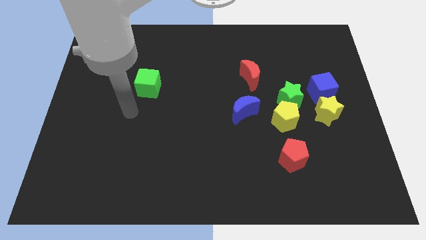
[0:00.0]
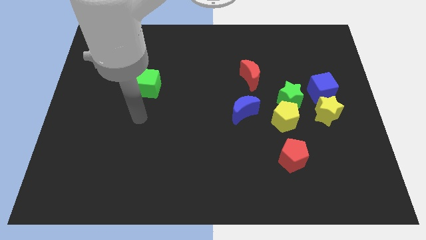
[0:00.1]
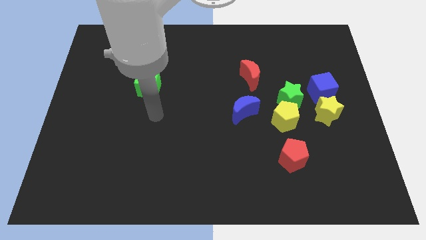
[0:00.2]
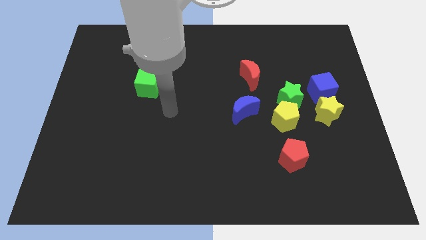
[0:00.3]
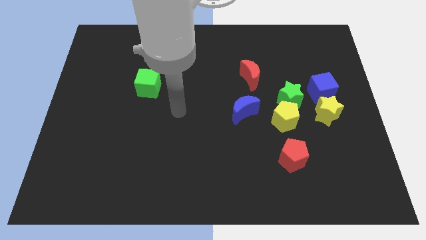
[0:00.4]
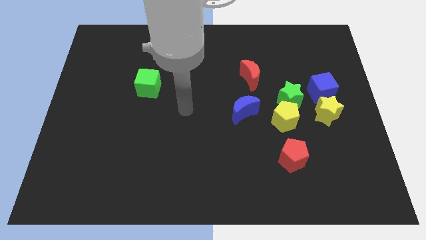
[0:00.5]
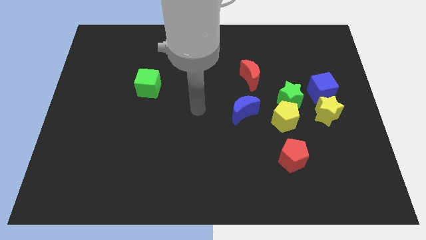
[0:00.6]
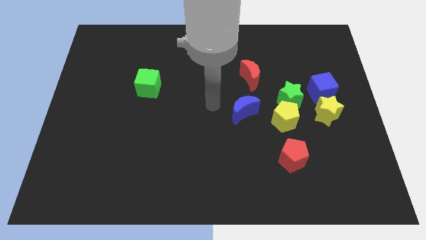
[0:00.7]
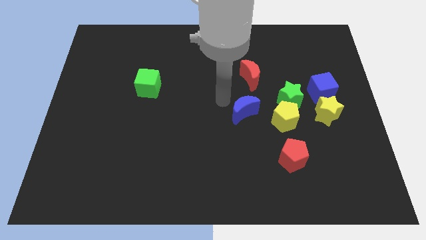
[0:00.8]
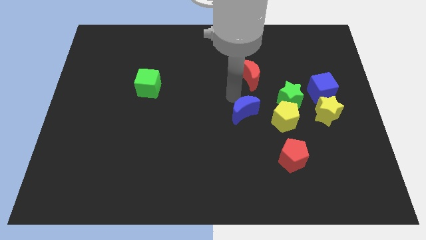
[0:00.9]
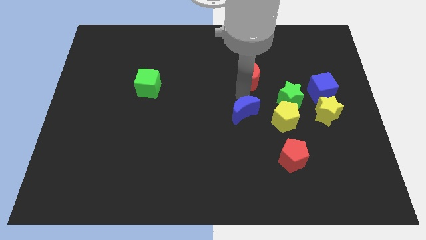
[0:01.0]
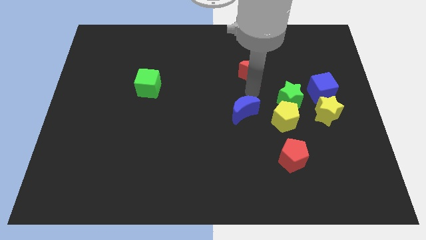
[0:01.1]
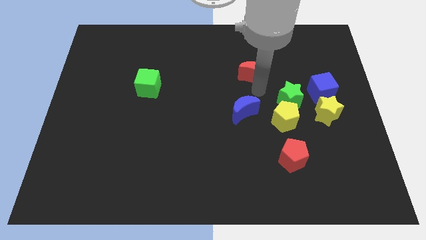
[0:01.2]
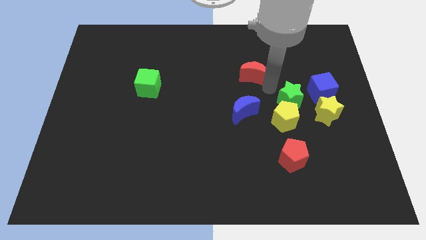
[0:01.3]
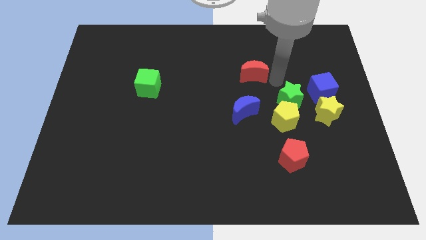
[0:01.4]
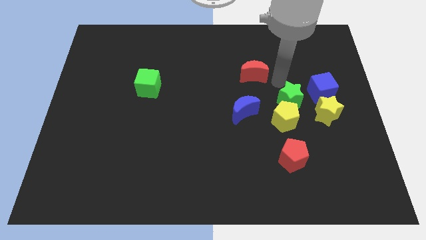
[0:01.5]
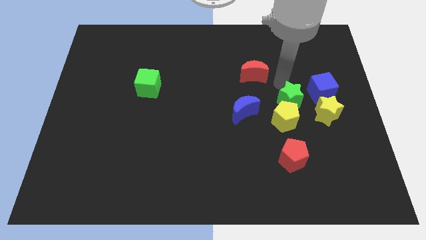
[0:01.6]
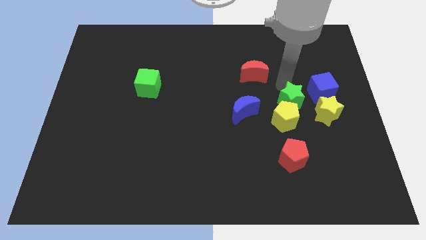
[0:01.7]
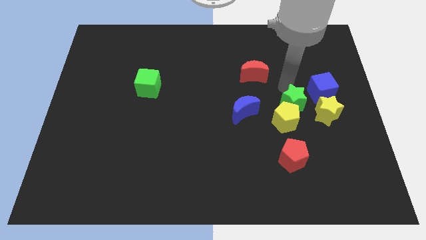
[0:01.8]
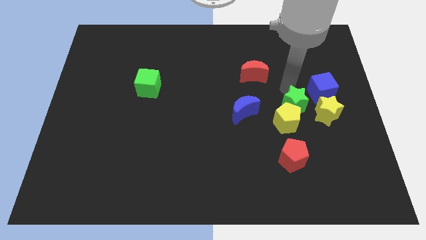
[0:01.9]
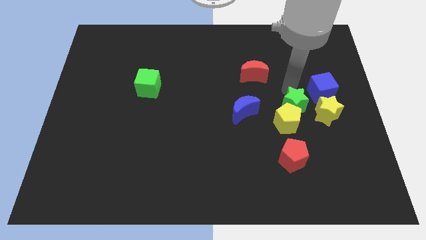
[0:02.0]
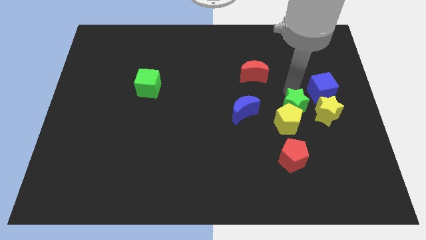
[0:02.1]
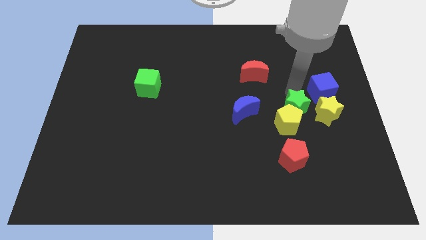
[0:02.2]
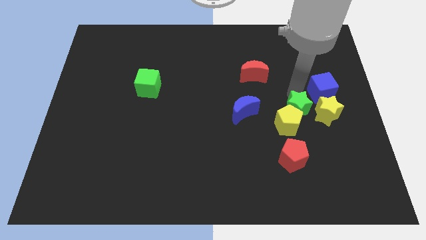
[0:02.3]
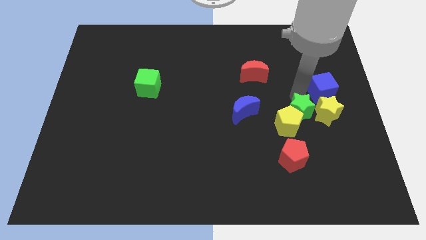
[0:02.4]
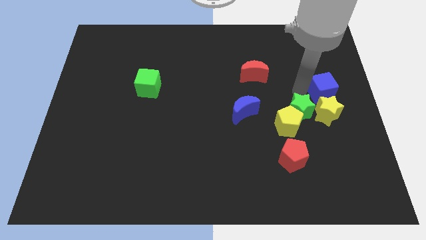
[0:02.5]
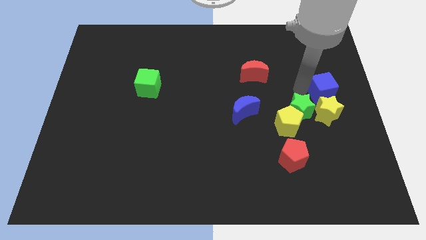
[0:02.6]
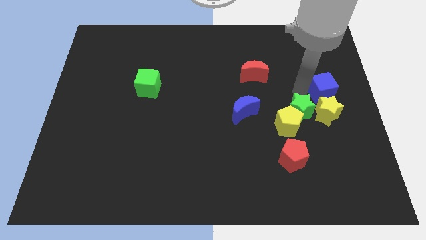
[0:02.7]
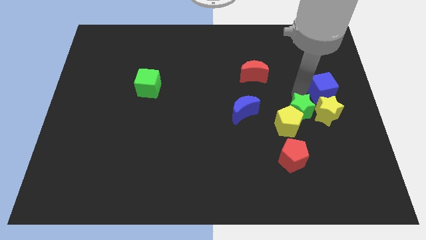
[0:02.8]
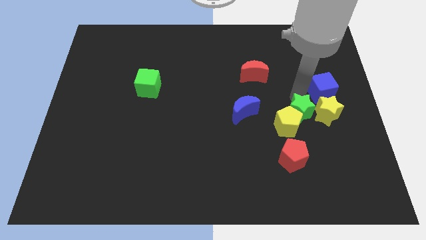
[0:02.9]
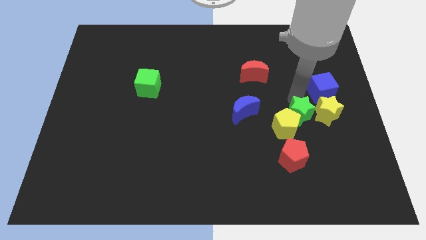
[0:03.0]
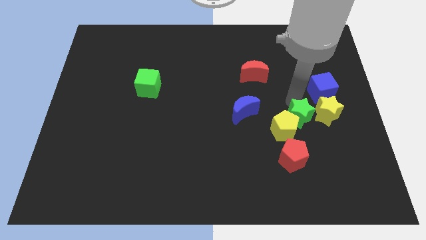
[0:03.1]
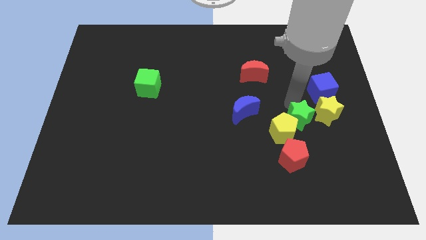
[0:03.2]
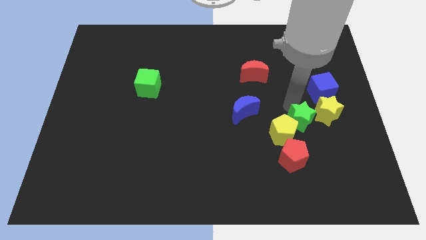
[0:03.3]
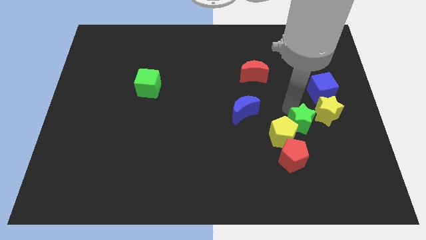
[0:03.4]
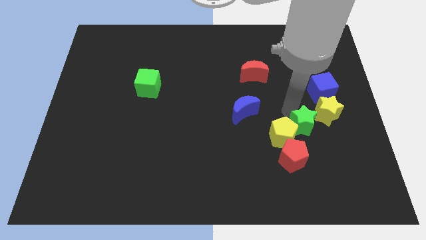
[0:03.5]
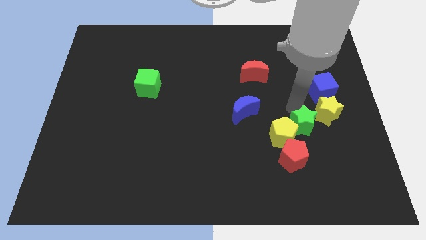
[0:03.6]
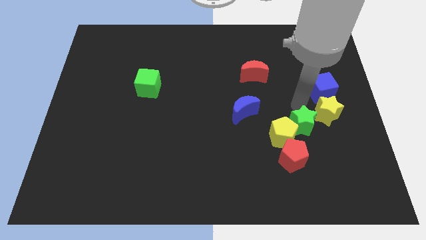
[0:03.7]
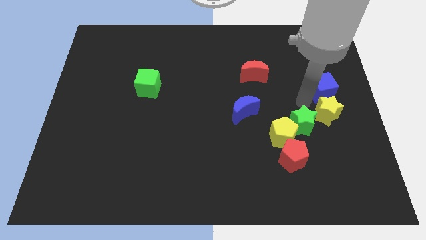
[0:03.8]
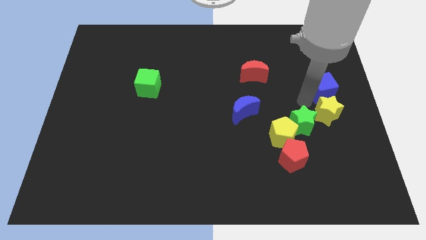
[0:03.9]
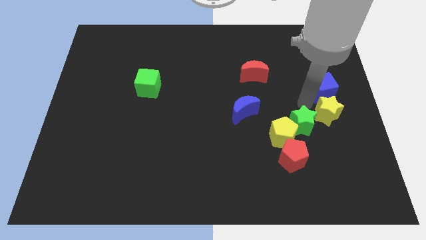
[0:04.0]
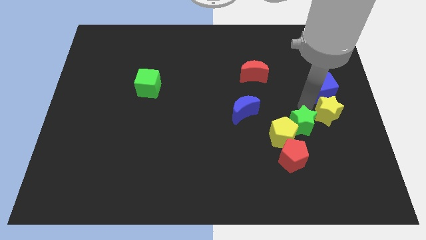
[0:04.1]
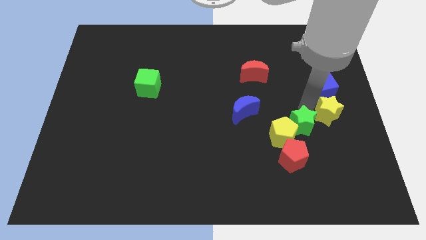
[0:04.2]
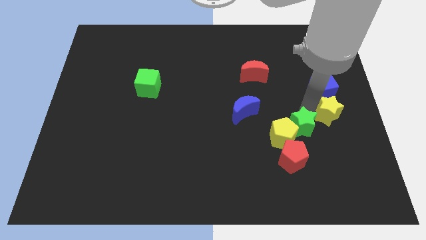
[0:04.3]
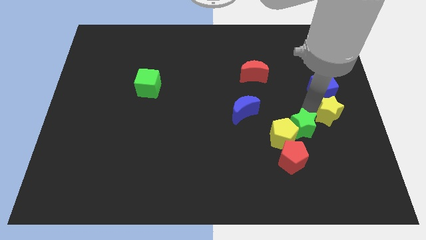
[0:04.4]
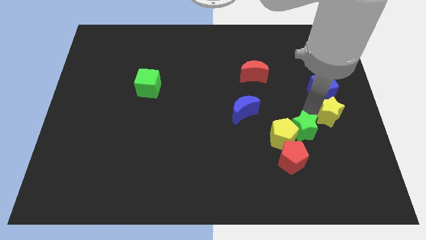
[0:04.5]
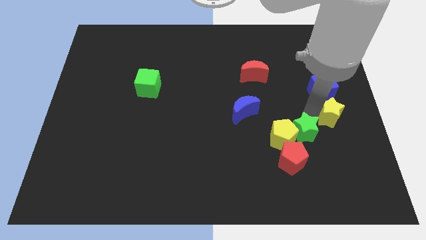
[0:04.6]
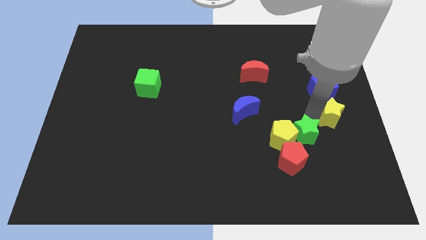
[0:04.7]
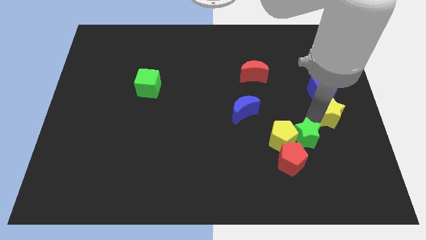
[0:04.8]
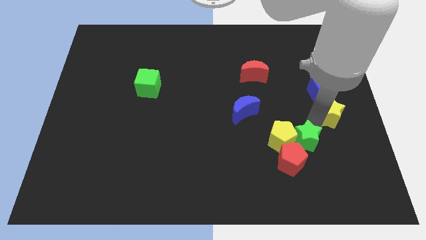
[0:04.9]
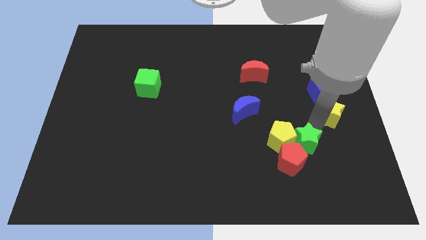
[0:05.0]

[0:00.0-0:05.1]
put the green star next to the red pentagon

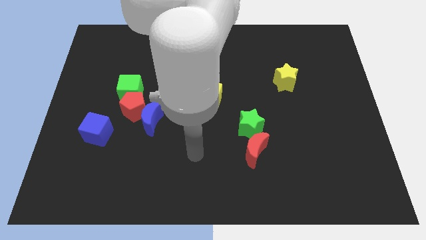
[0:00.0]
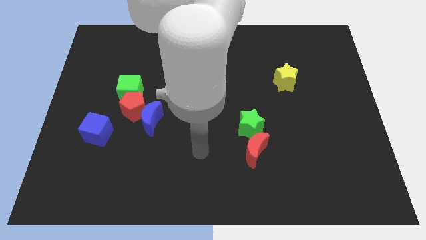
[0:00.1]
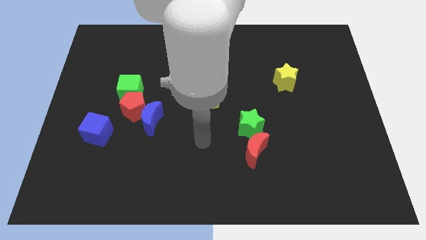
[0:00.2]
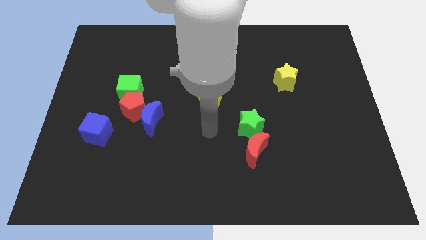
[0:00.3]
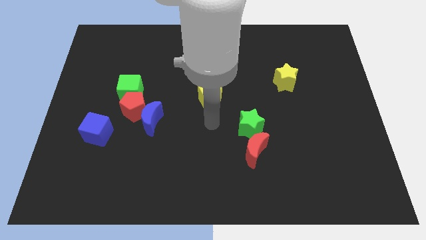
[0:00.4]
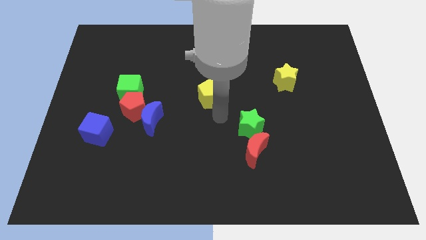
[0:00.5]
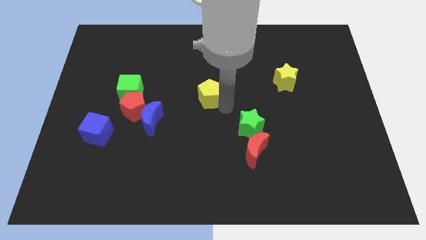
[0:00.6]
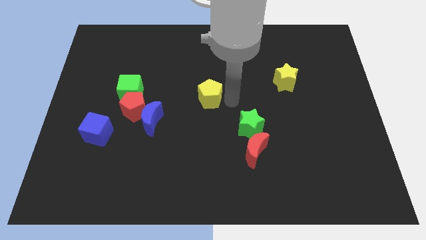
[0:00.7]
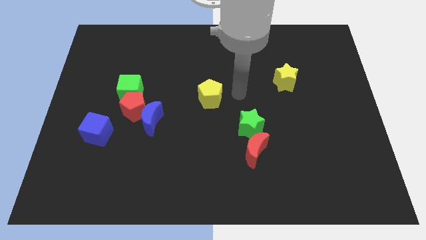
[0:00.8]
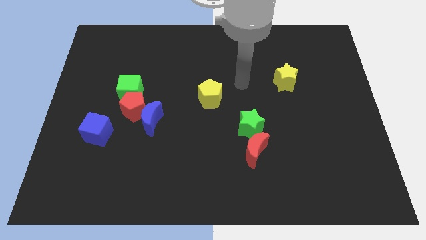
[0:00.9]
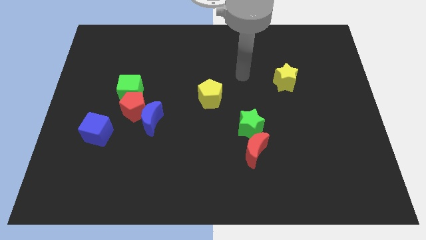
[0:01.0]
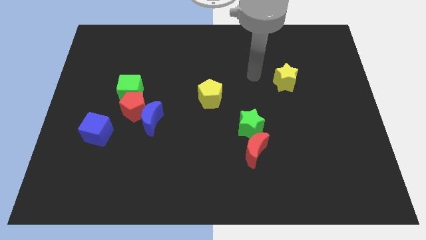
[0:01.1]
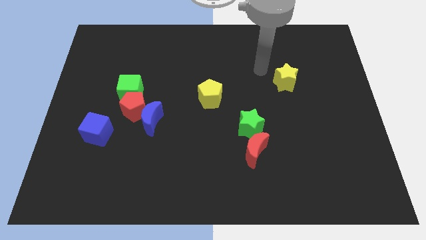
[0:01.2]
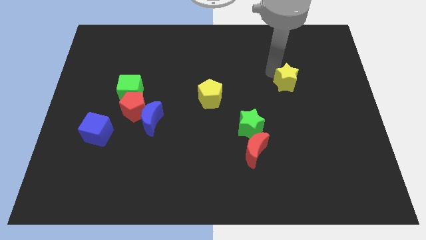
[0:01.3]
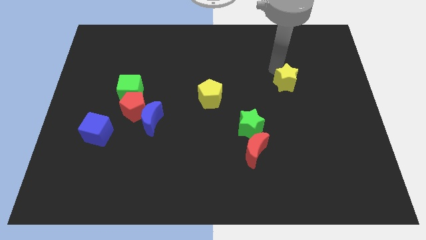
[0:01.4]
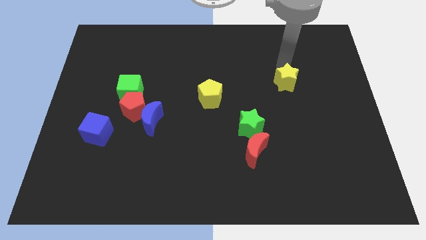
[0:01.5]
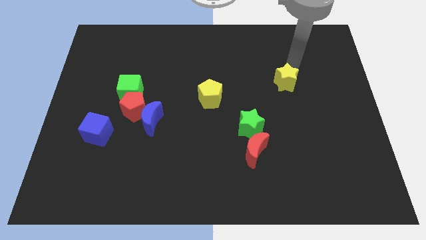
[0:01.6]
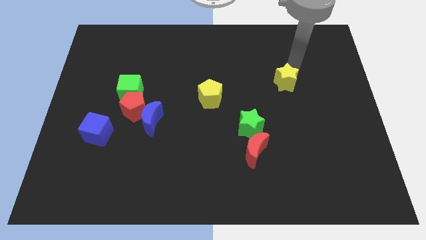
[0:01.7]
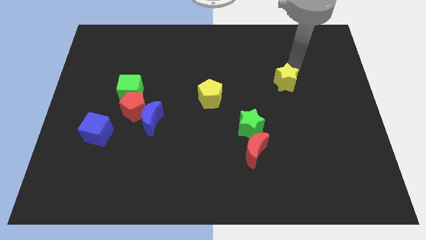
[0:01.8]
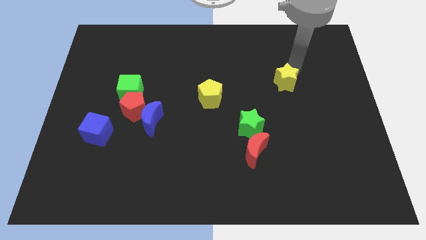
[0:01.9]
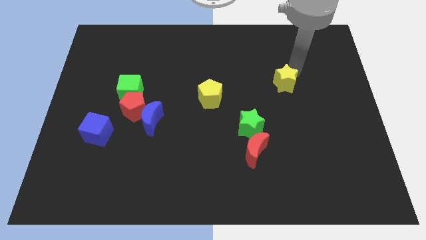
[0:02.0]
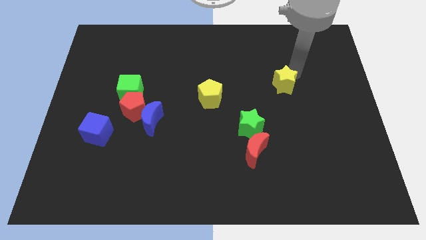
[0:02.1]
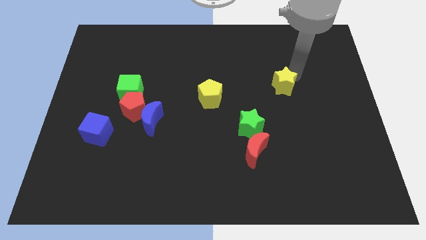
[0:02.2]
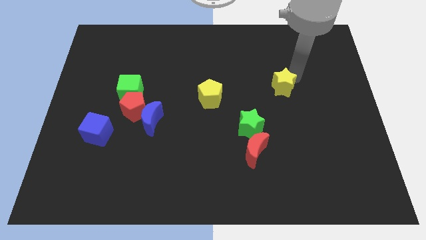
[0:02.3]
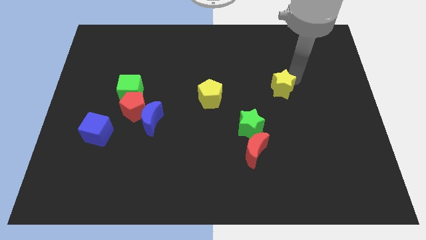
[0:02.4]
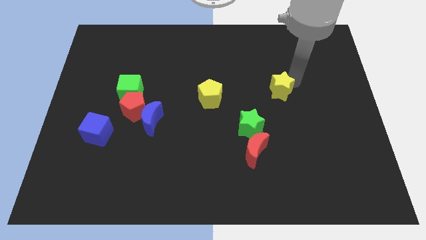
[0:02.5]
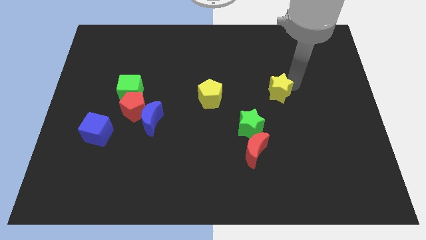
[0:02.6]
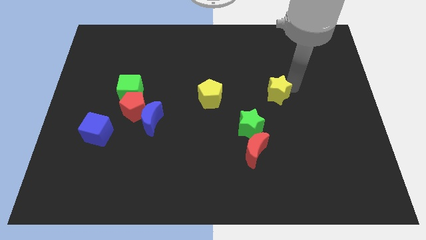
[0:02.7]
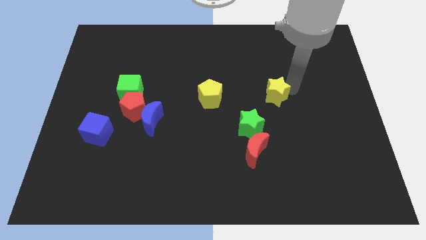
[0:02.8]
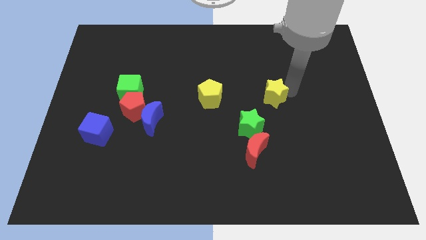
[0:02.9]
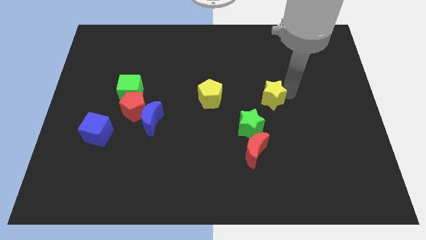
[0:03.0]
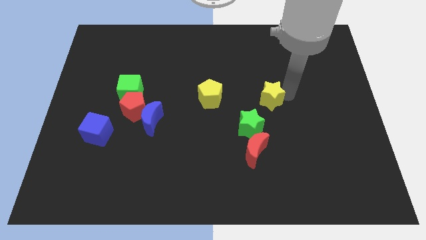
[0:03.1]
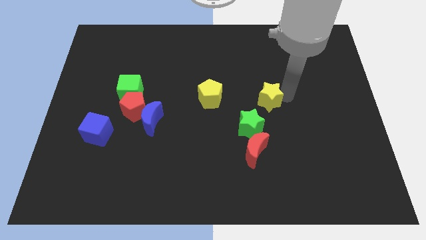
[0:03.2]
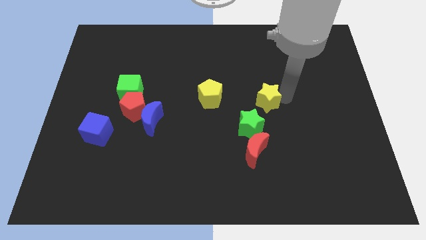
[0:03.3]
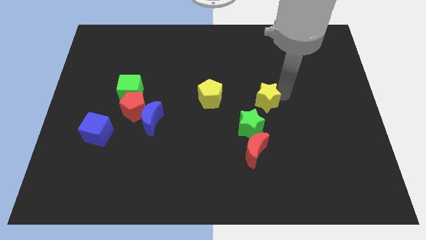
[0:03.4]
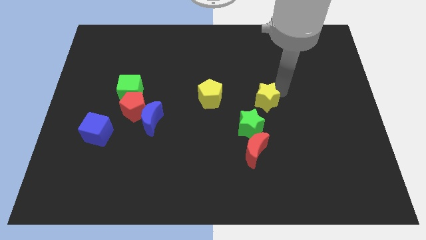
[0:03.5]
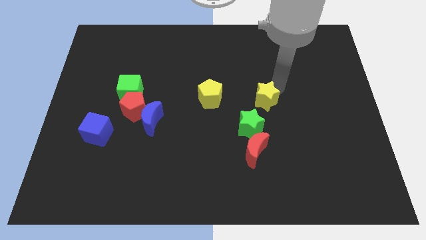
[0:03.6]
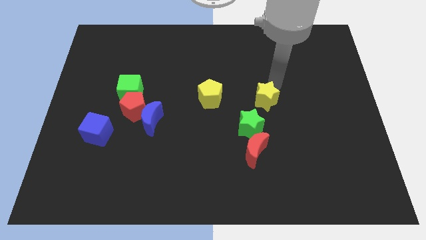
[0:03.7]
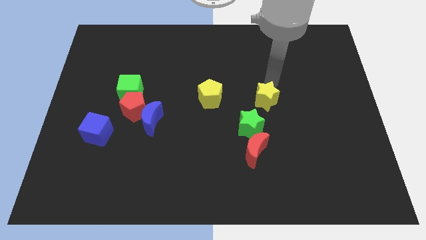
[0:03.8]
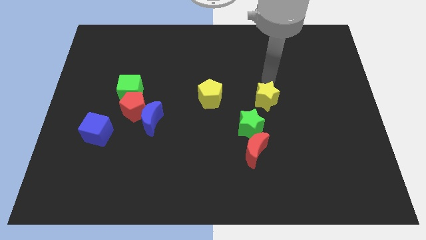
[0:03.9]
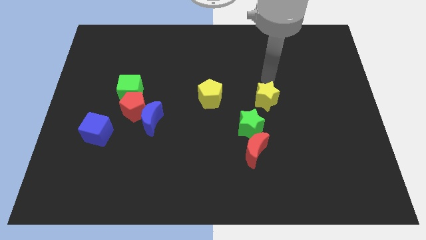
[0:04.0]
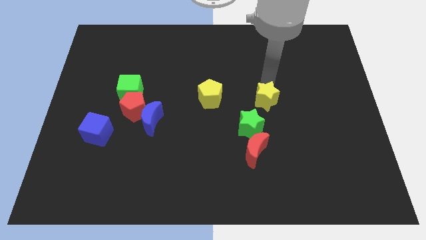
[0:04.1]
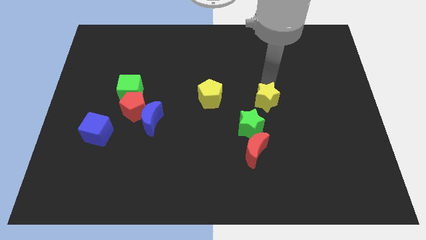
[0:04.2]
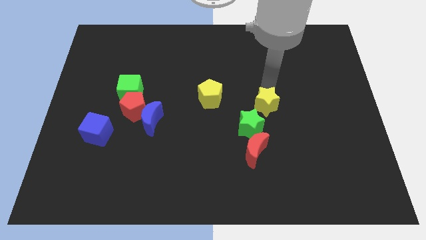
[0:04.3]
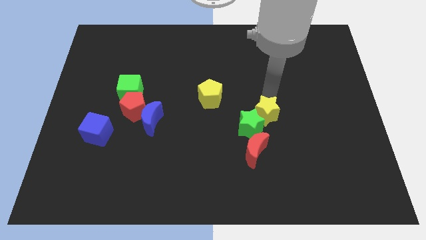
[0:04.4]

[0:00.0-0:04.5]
push the yellow star close to the green star
